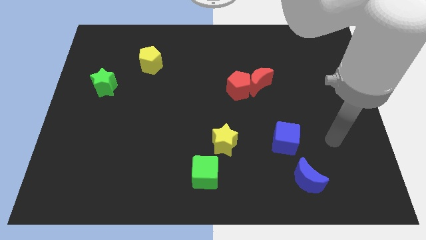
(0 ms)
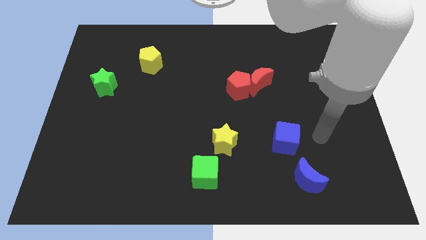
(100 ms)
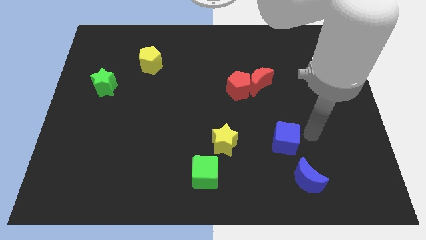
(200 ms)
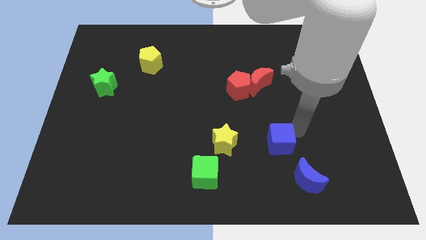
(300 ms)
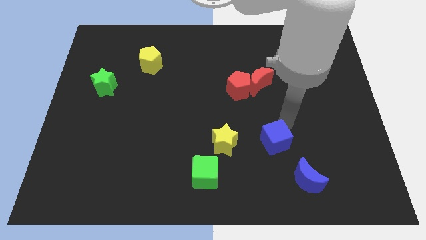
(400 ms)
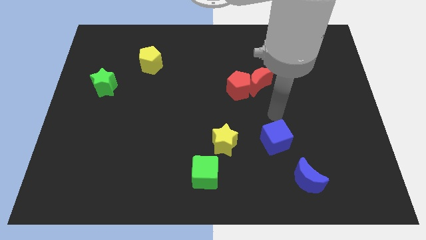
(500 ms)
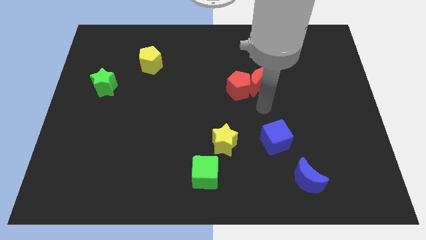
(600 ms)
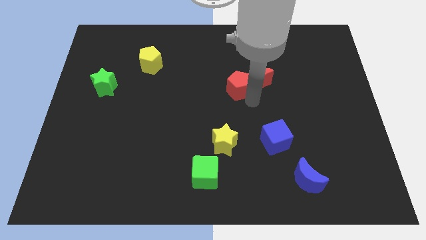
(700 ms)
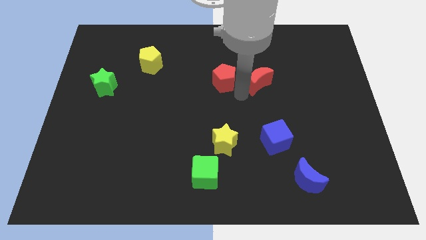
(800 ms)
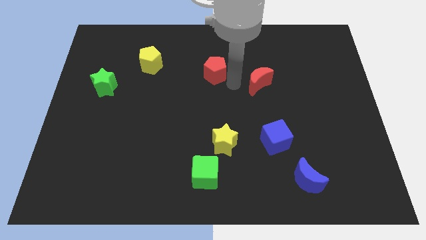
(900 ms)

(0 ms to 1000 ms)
separate the red moon from the red pentagon

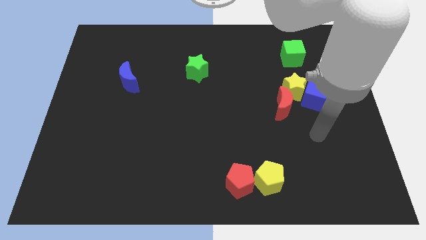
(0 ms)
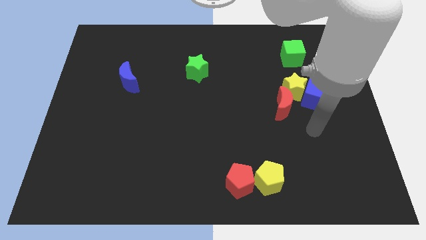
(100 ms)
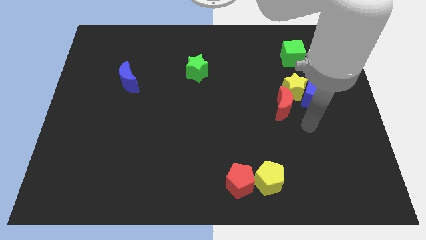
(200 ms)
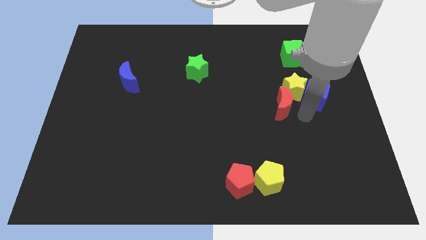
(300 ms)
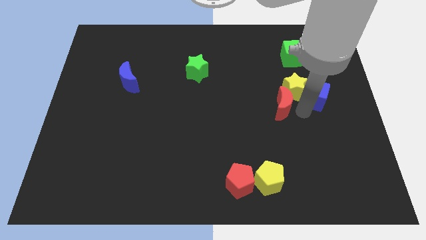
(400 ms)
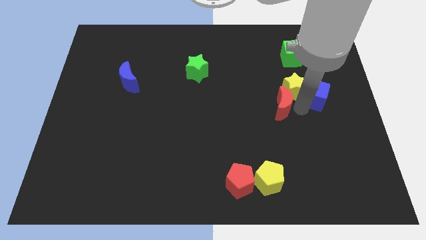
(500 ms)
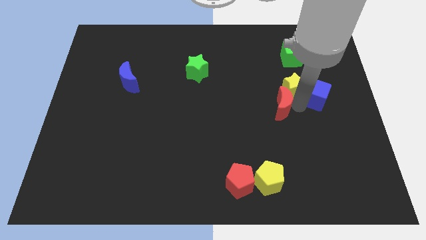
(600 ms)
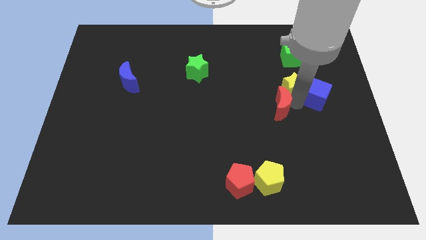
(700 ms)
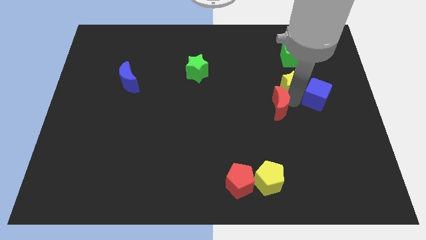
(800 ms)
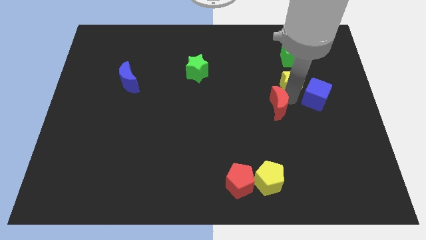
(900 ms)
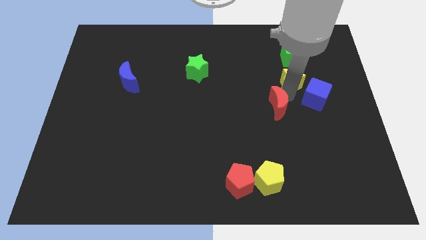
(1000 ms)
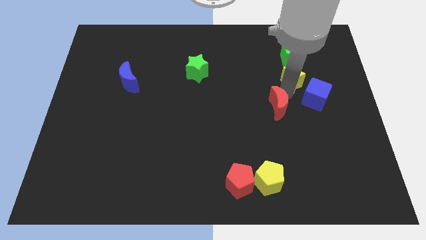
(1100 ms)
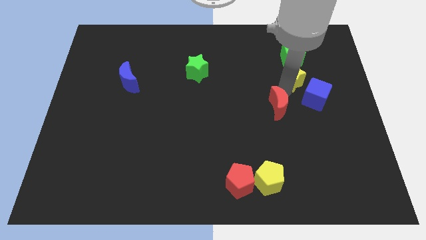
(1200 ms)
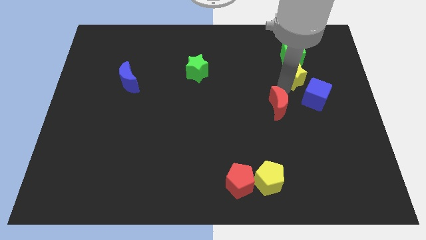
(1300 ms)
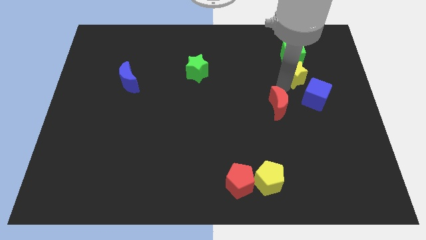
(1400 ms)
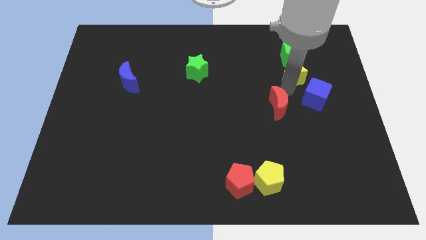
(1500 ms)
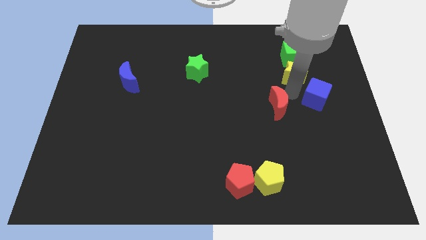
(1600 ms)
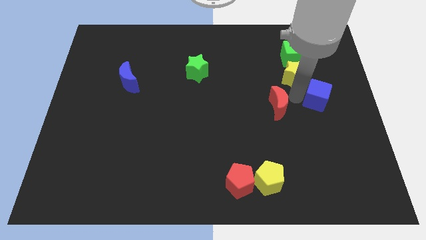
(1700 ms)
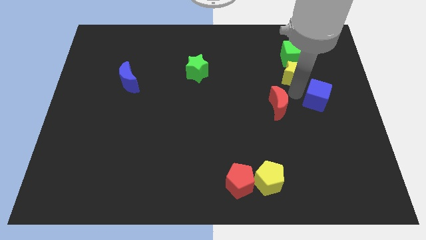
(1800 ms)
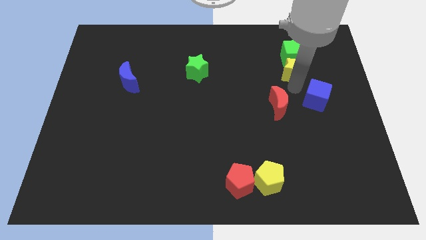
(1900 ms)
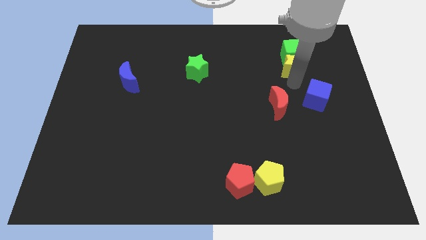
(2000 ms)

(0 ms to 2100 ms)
pull the yellow star apart from the blue cube and red moon

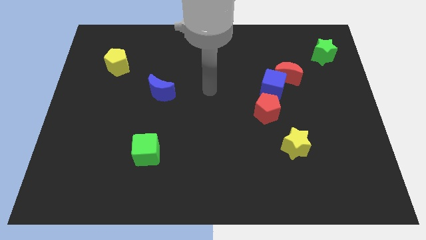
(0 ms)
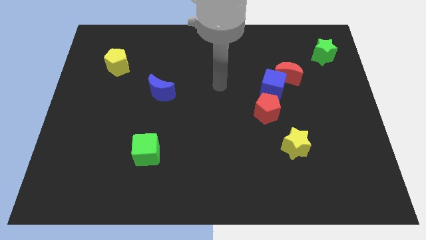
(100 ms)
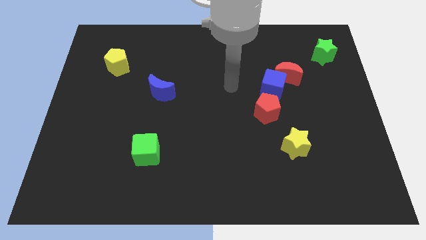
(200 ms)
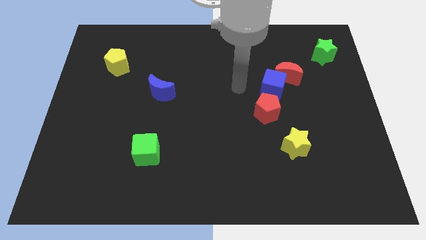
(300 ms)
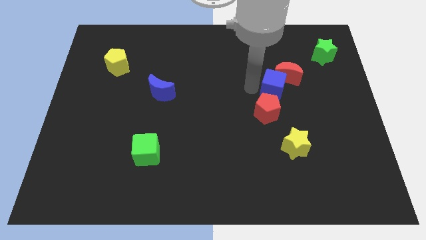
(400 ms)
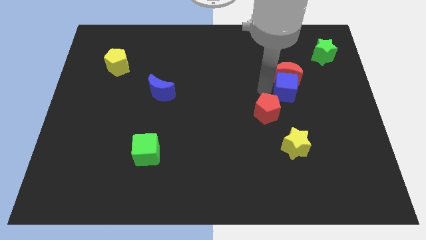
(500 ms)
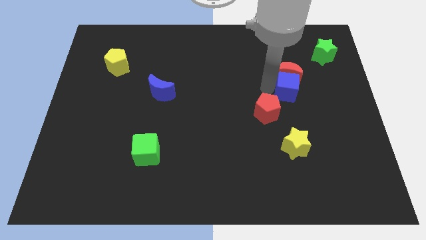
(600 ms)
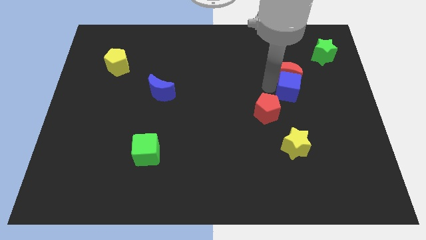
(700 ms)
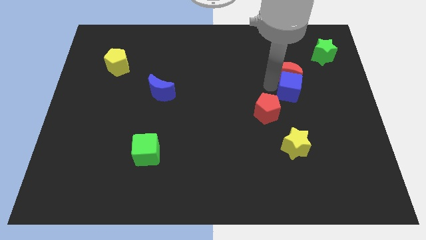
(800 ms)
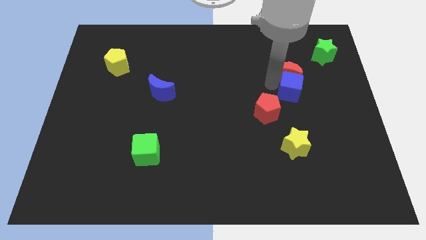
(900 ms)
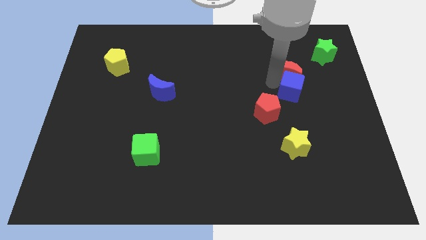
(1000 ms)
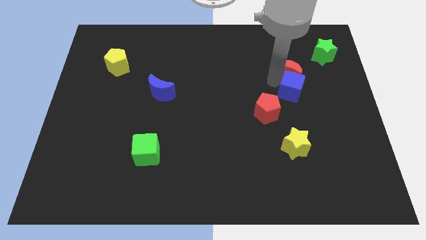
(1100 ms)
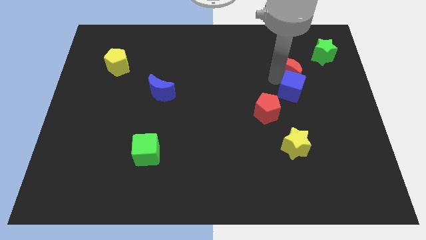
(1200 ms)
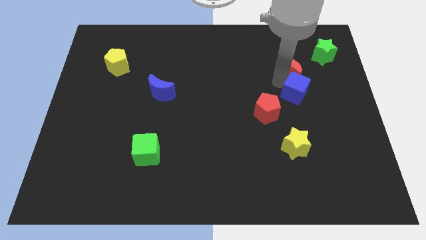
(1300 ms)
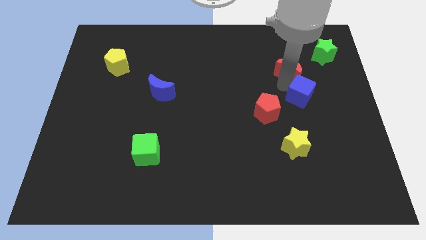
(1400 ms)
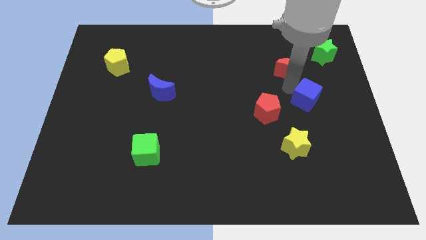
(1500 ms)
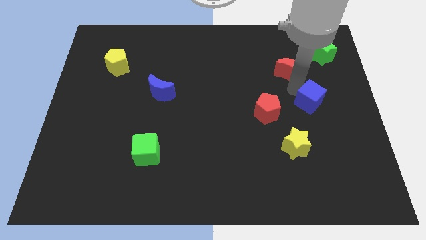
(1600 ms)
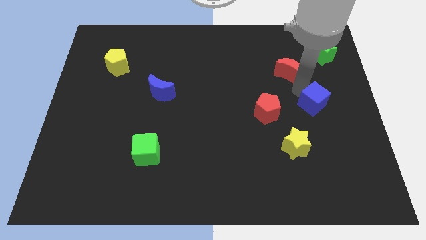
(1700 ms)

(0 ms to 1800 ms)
move the red moon away from the blue cube

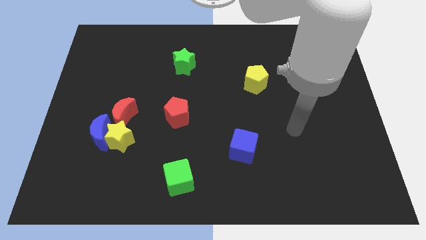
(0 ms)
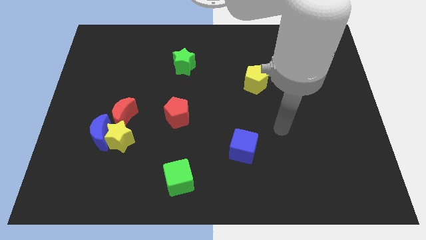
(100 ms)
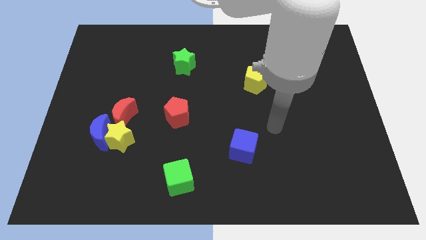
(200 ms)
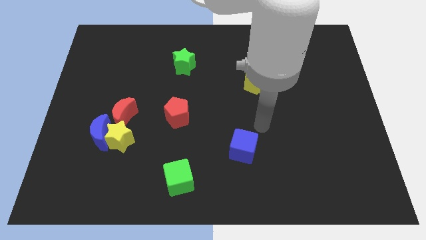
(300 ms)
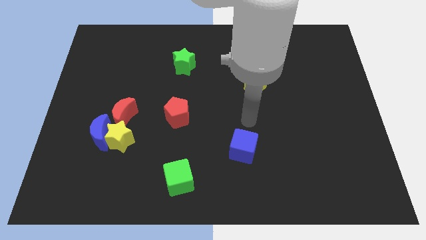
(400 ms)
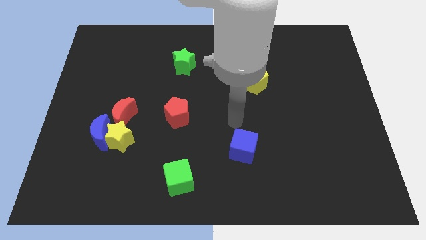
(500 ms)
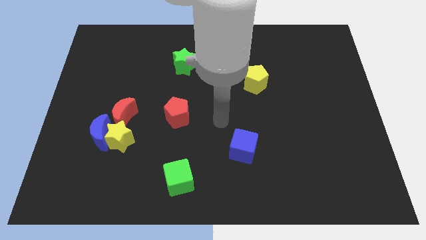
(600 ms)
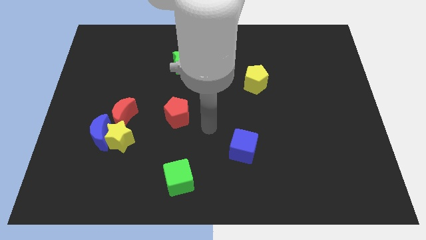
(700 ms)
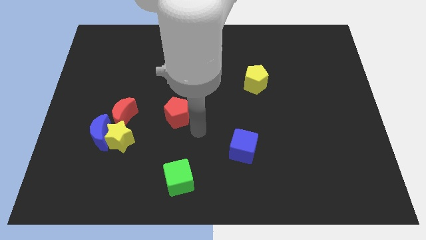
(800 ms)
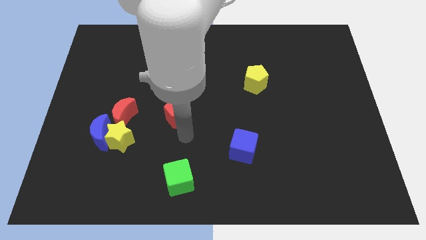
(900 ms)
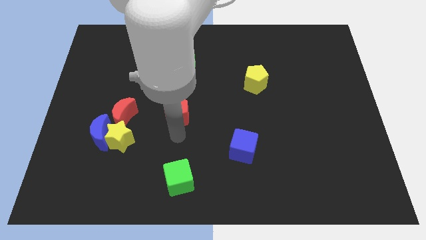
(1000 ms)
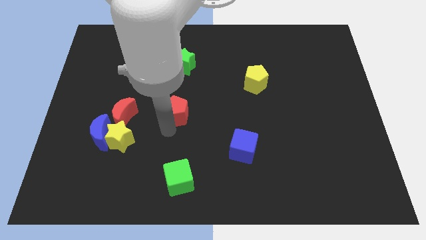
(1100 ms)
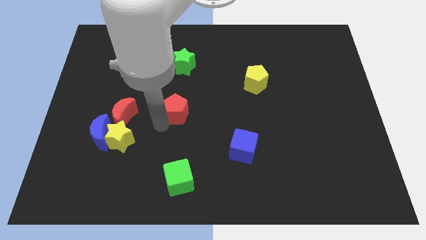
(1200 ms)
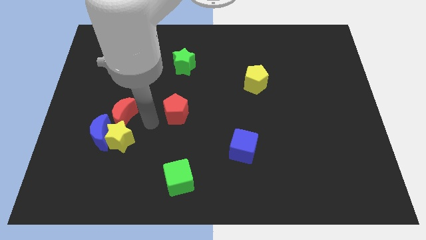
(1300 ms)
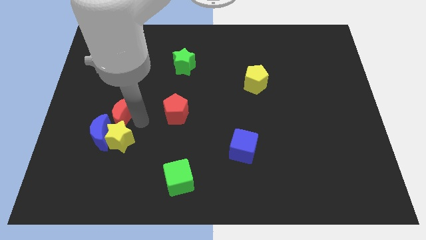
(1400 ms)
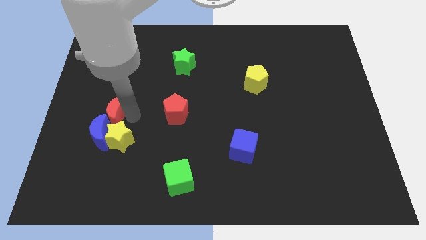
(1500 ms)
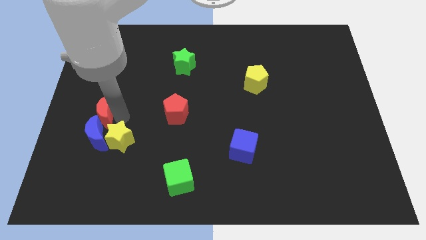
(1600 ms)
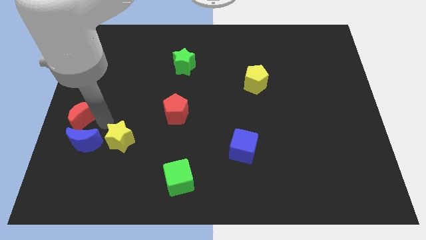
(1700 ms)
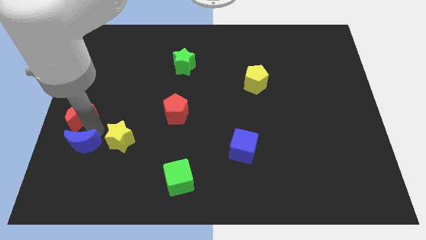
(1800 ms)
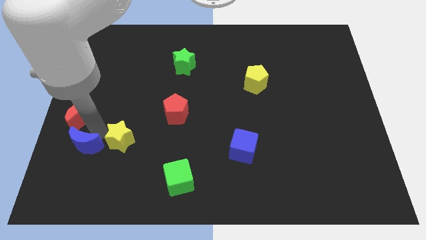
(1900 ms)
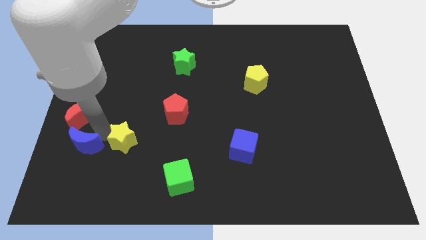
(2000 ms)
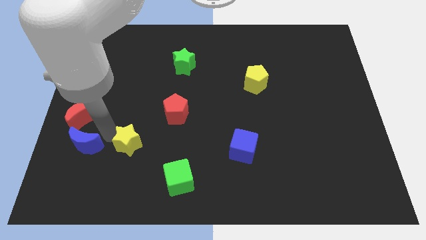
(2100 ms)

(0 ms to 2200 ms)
separate the yellow star from the blue moon and red moon

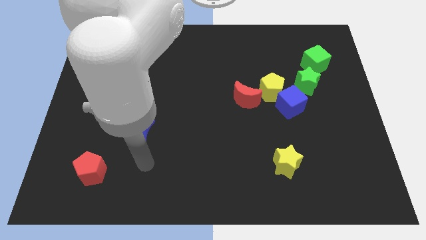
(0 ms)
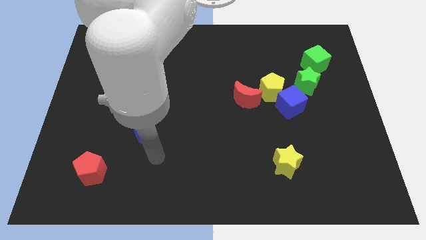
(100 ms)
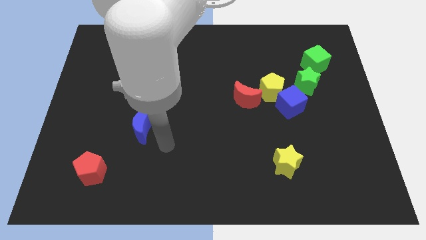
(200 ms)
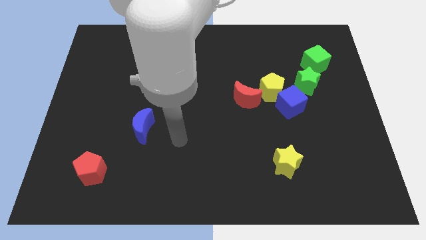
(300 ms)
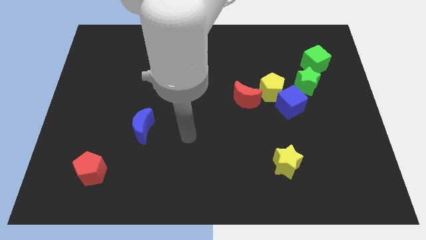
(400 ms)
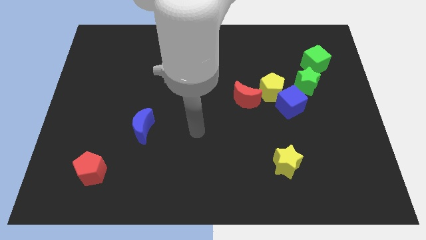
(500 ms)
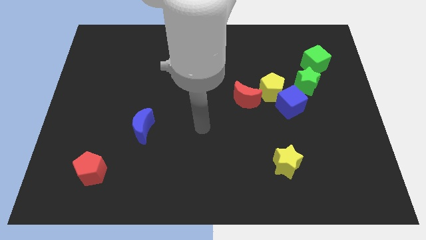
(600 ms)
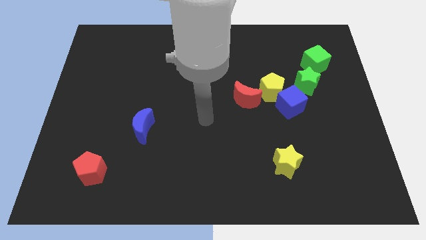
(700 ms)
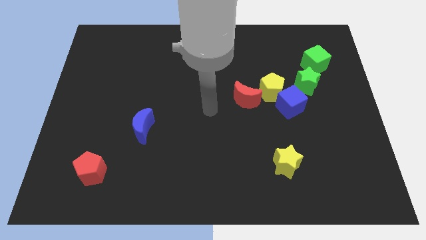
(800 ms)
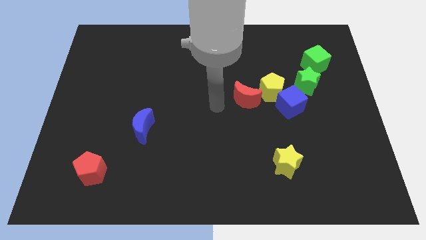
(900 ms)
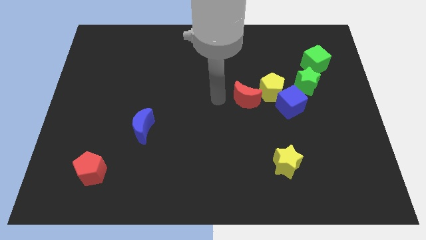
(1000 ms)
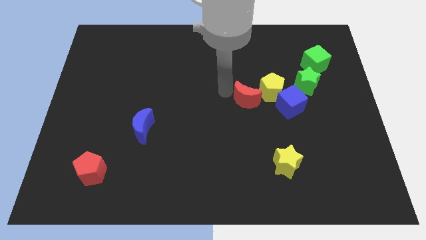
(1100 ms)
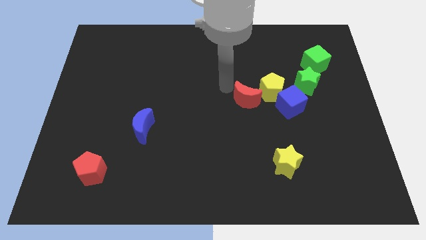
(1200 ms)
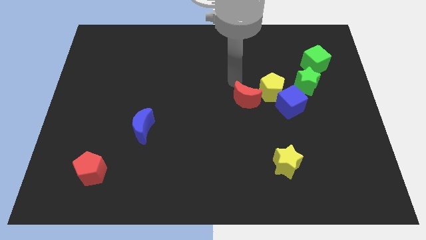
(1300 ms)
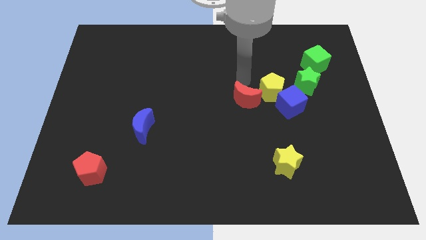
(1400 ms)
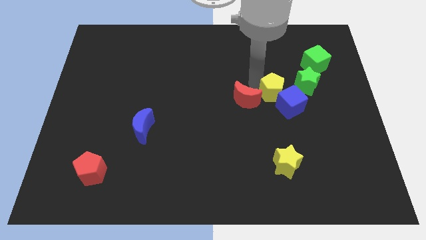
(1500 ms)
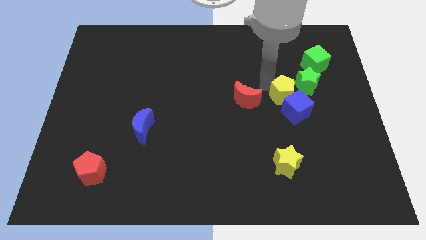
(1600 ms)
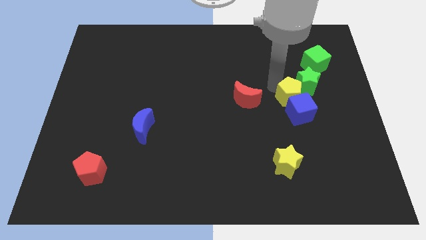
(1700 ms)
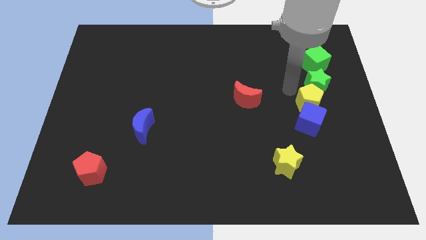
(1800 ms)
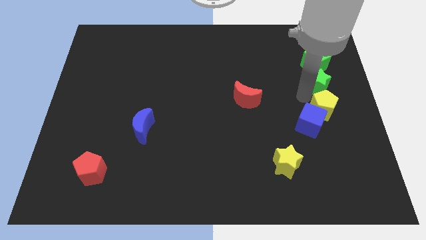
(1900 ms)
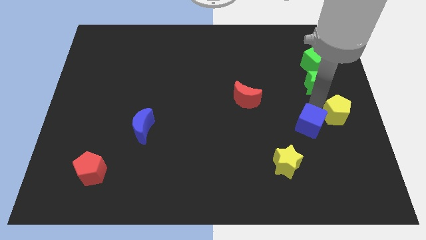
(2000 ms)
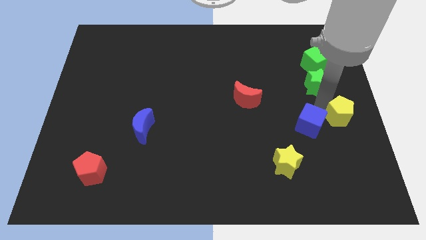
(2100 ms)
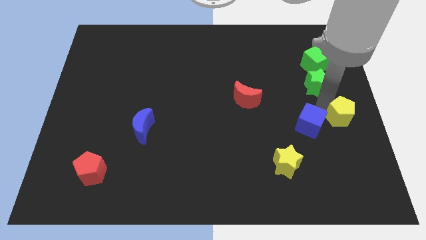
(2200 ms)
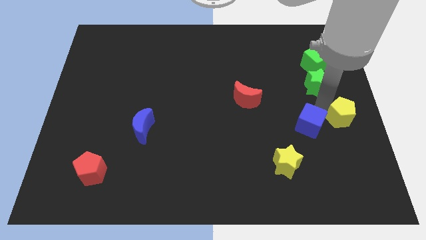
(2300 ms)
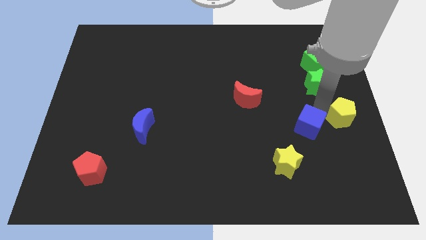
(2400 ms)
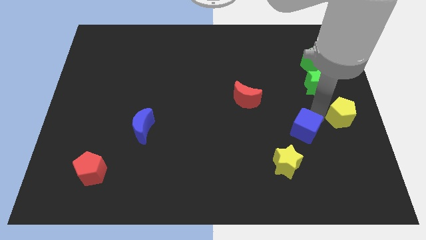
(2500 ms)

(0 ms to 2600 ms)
pull the blue cube apart from the yellow pentagon and green star
